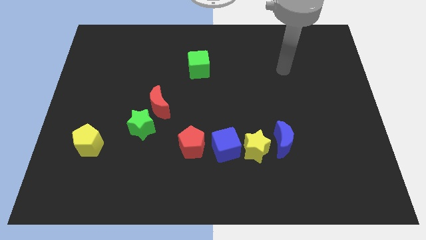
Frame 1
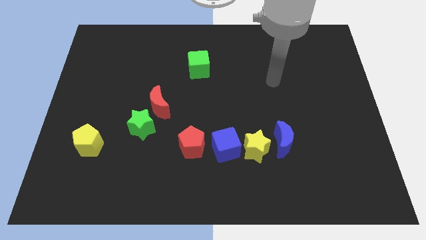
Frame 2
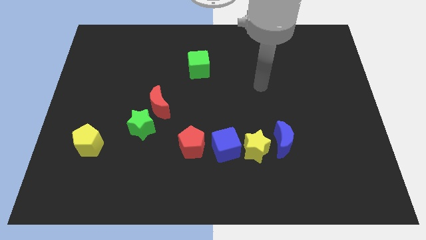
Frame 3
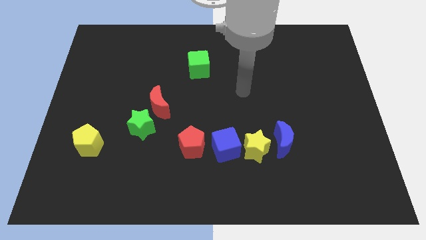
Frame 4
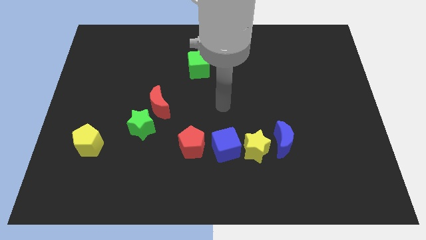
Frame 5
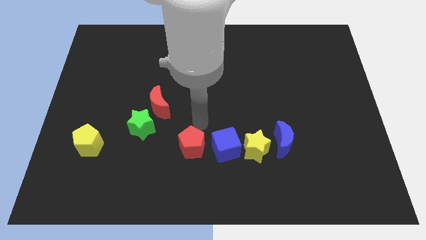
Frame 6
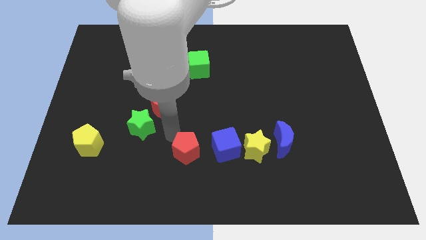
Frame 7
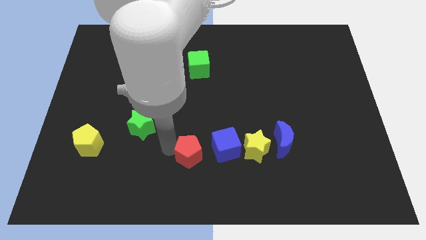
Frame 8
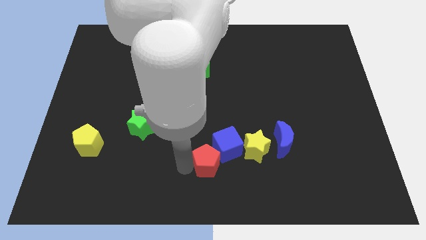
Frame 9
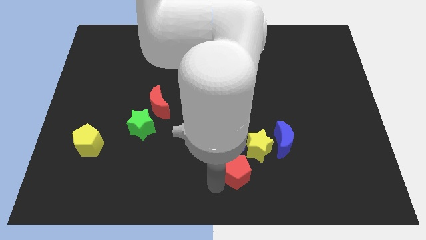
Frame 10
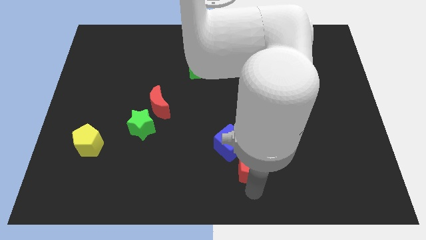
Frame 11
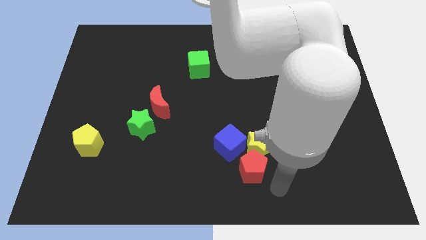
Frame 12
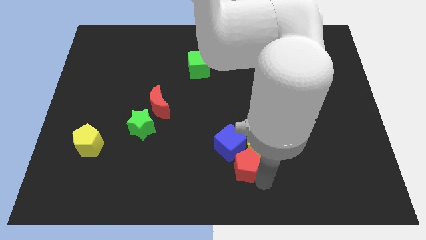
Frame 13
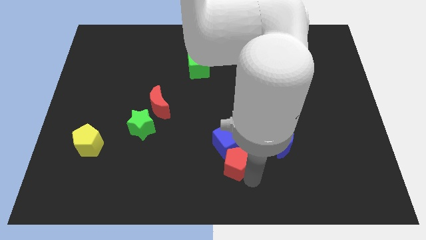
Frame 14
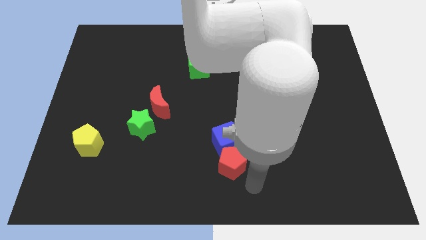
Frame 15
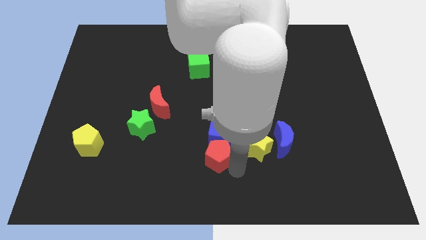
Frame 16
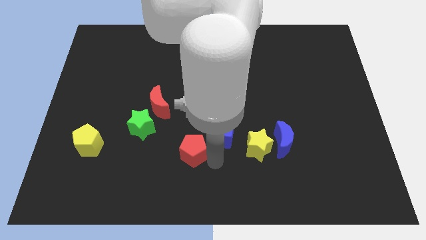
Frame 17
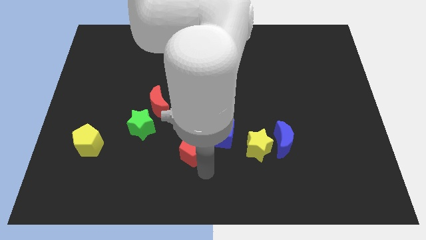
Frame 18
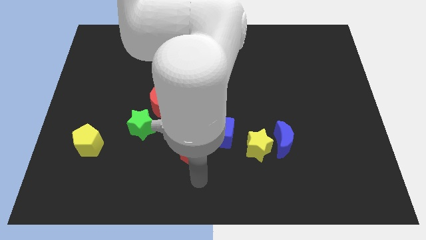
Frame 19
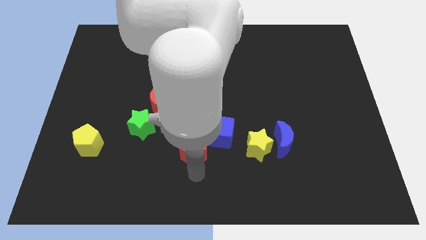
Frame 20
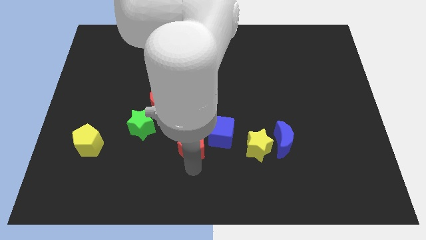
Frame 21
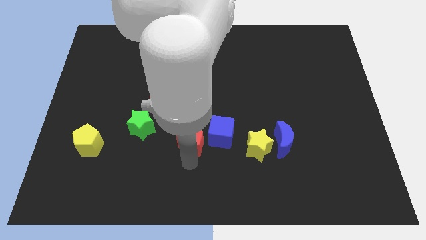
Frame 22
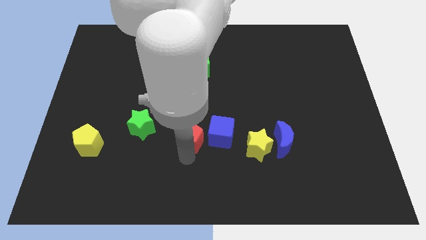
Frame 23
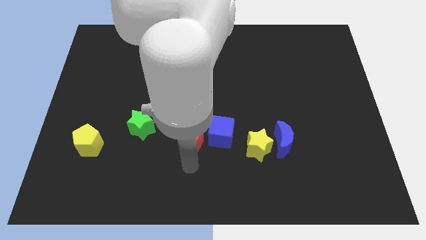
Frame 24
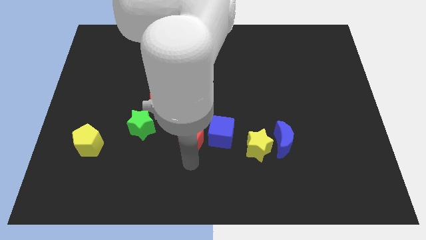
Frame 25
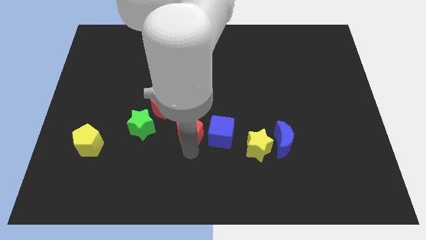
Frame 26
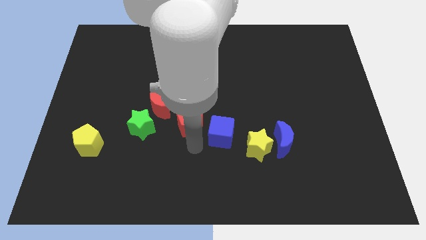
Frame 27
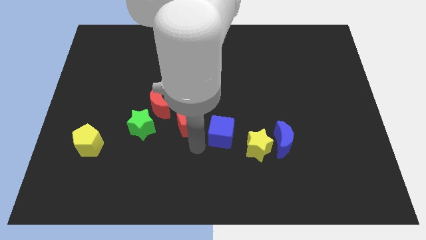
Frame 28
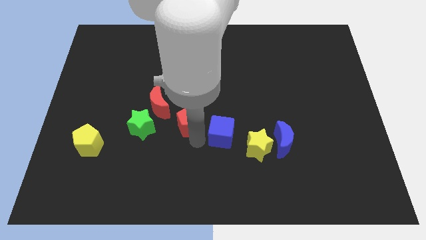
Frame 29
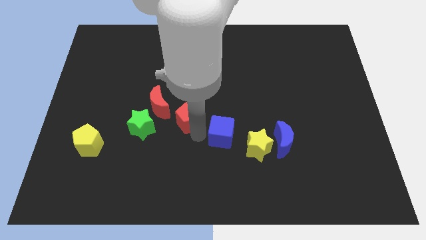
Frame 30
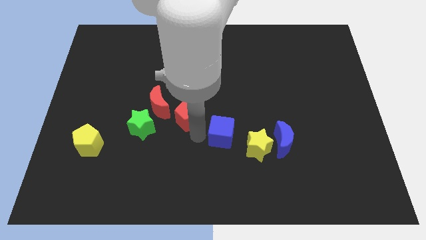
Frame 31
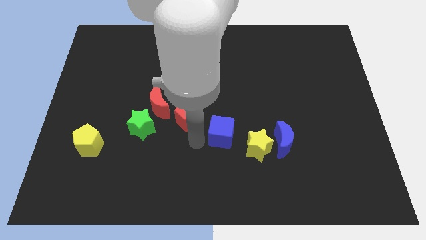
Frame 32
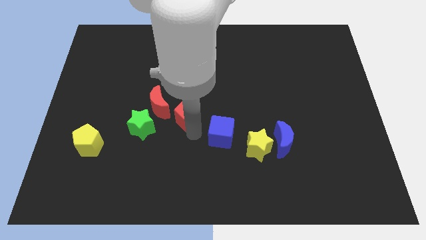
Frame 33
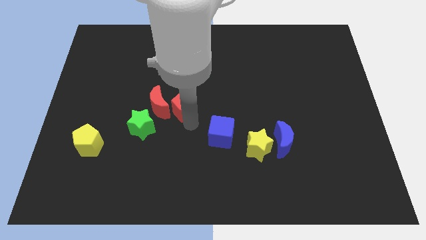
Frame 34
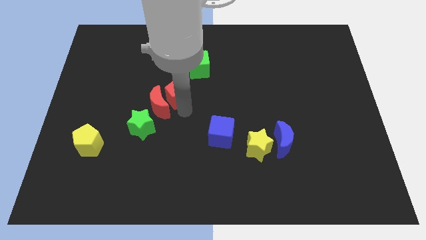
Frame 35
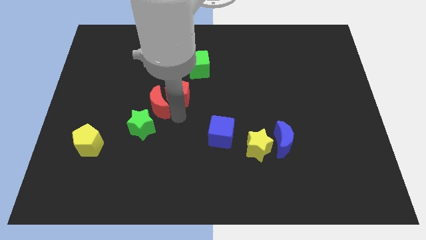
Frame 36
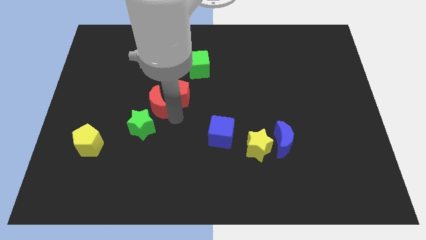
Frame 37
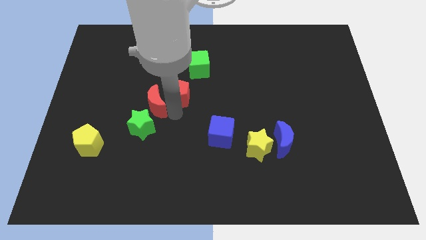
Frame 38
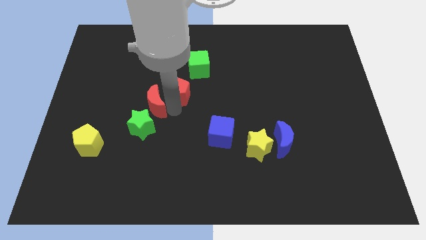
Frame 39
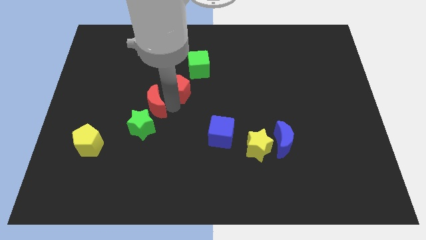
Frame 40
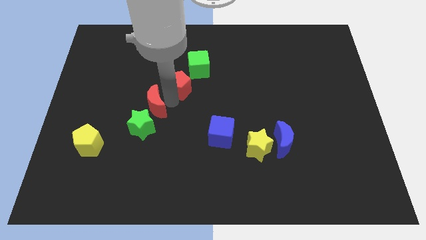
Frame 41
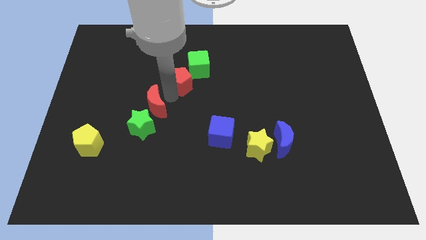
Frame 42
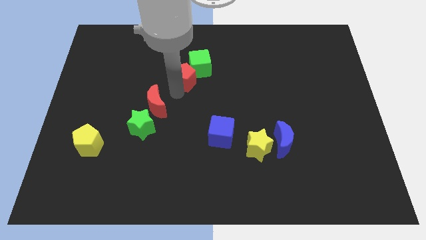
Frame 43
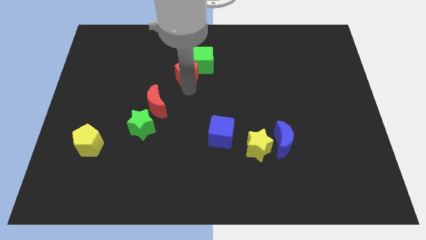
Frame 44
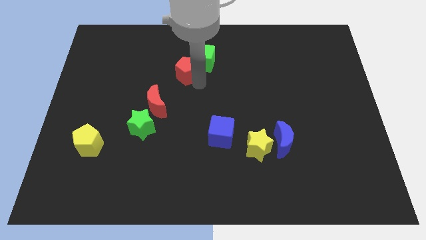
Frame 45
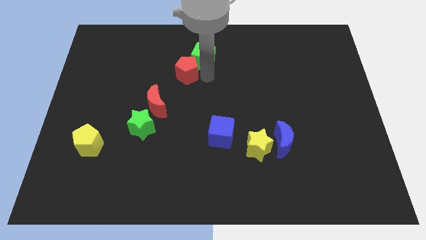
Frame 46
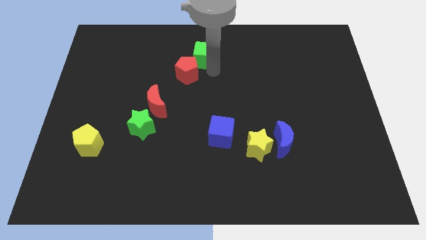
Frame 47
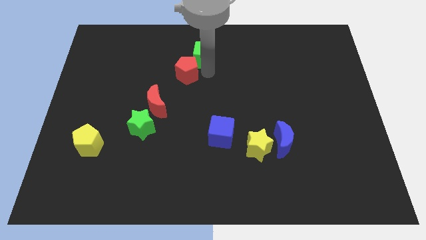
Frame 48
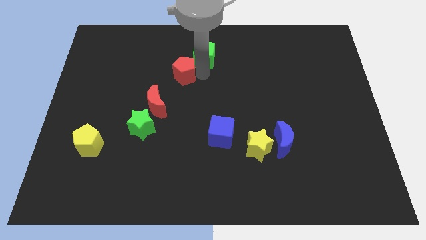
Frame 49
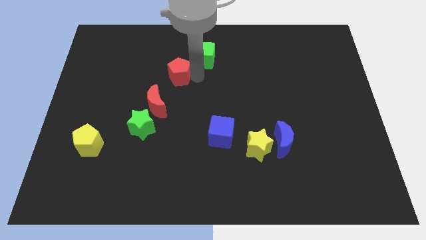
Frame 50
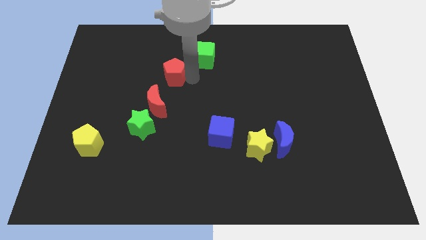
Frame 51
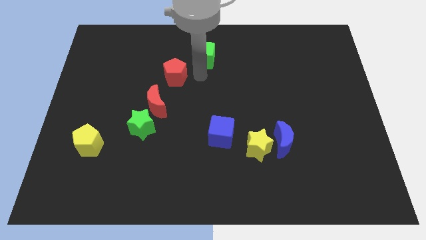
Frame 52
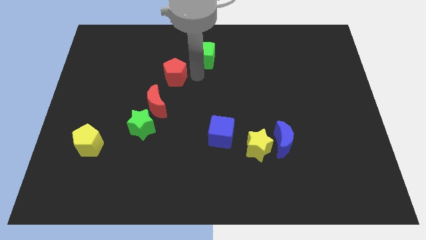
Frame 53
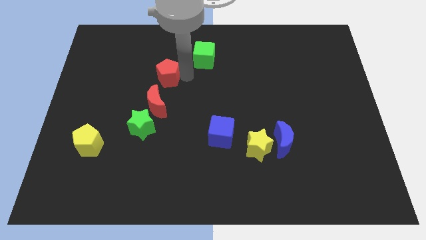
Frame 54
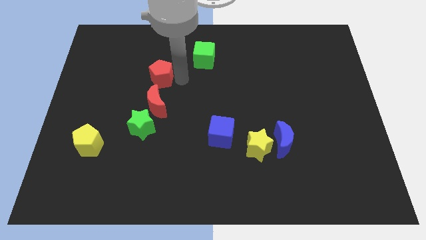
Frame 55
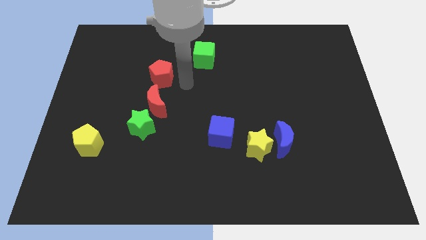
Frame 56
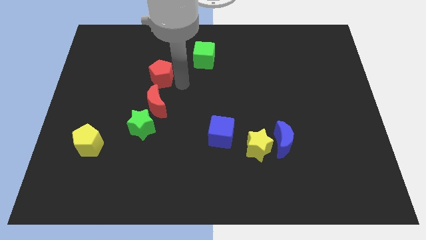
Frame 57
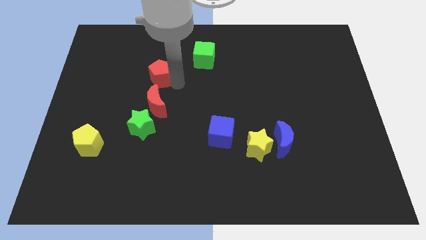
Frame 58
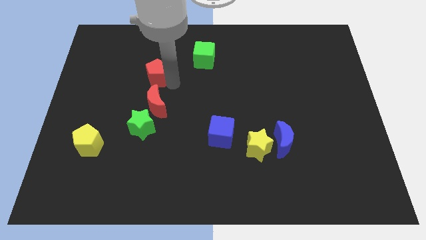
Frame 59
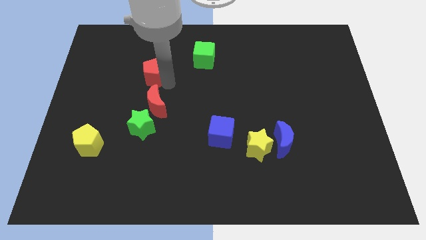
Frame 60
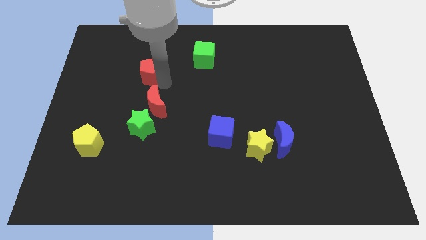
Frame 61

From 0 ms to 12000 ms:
push the red pentagon diagonally up and to the left

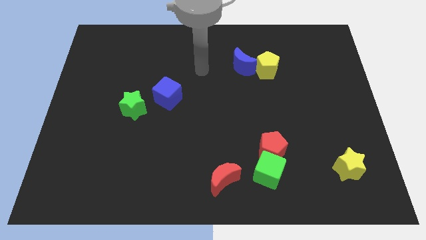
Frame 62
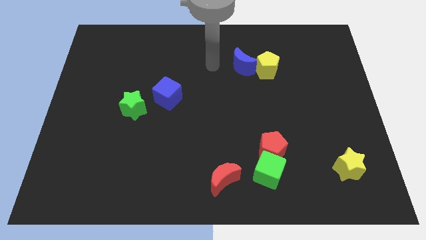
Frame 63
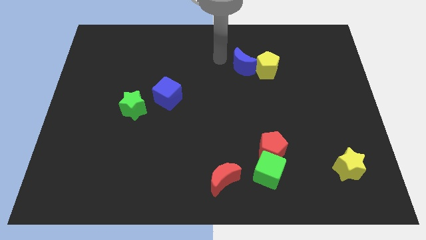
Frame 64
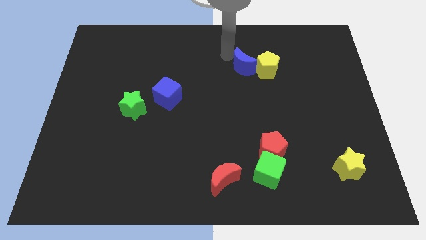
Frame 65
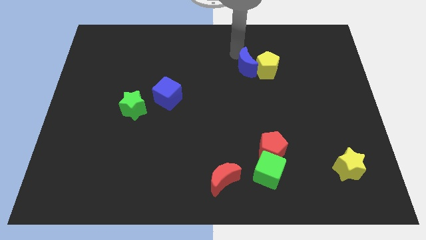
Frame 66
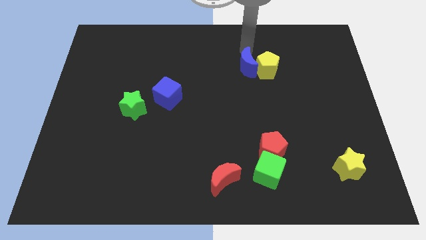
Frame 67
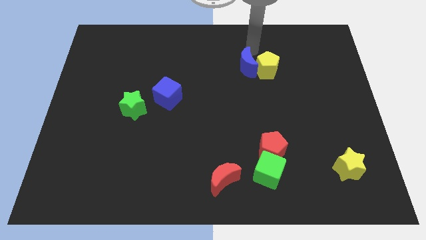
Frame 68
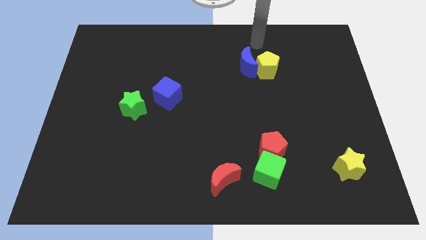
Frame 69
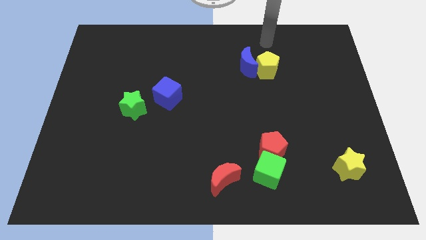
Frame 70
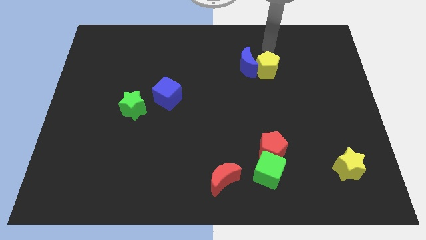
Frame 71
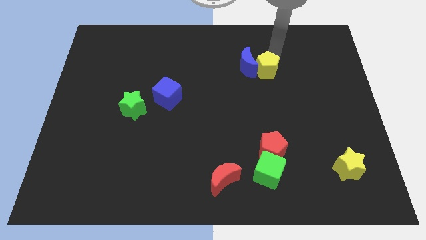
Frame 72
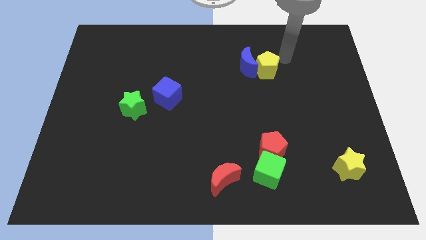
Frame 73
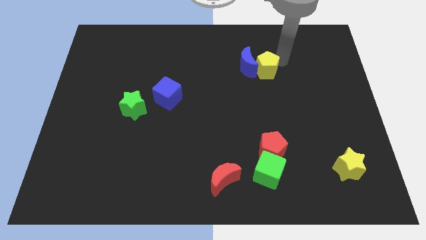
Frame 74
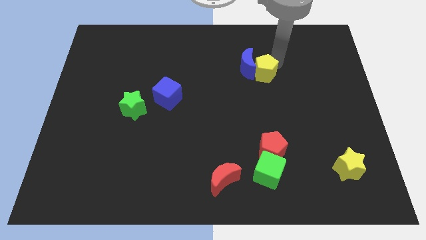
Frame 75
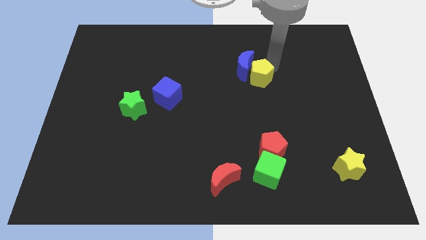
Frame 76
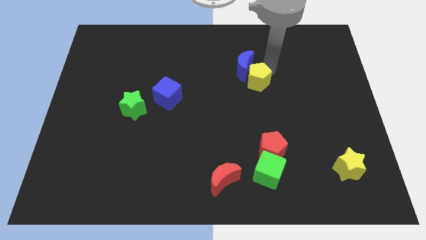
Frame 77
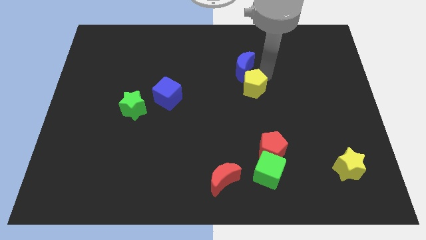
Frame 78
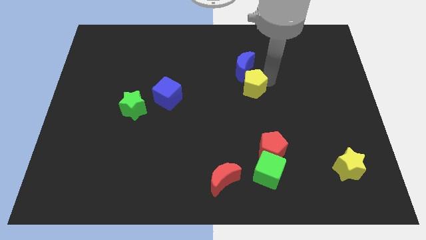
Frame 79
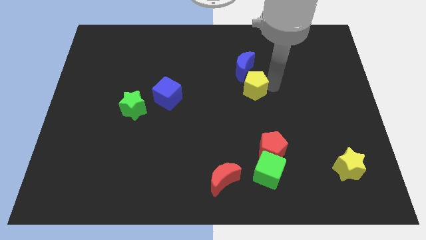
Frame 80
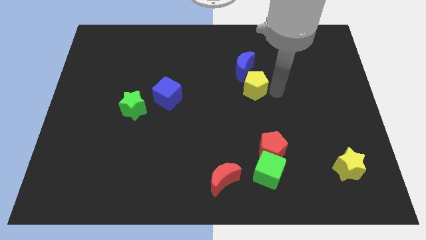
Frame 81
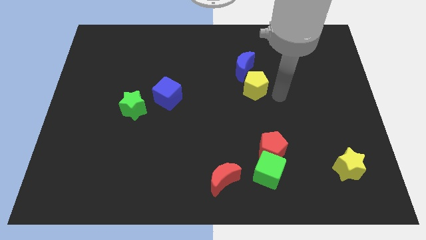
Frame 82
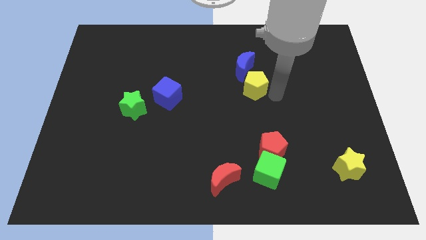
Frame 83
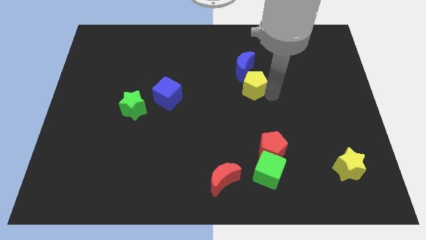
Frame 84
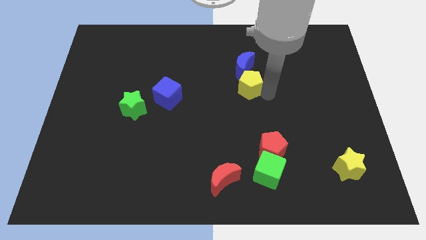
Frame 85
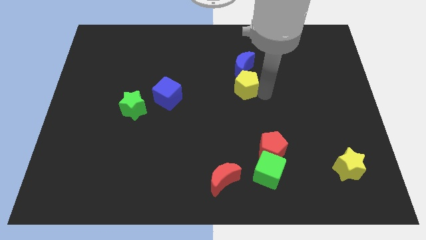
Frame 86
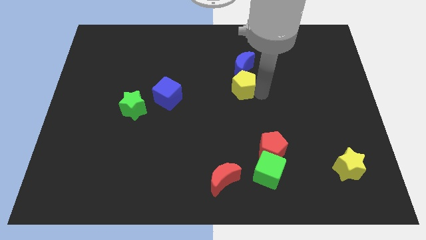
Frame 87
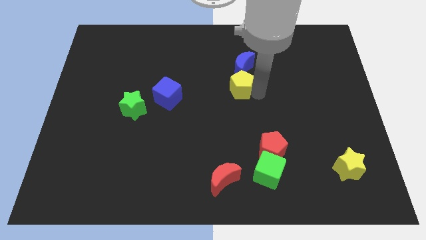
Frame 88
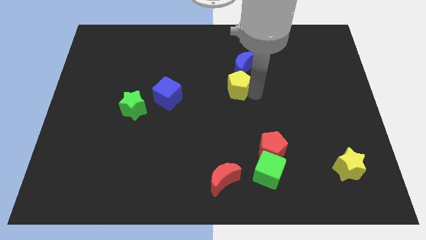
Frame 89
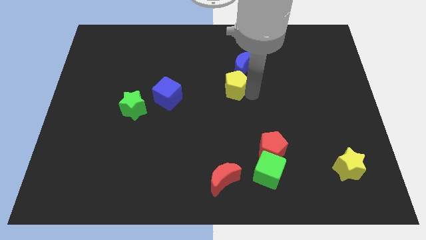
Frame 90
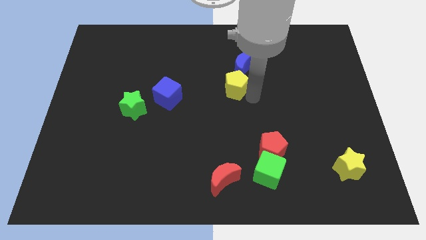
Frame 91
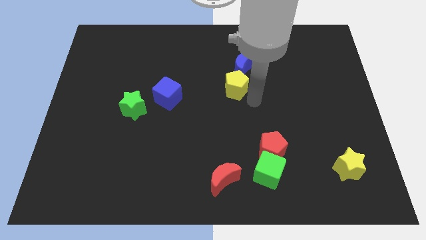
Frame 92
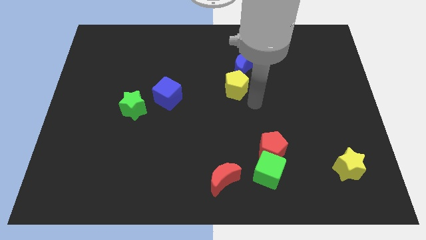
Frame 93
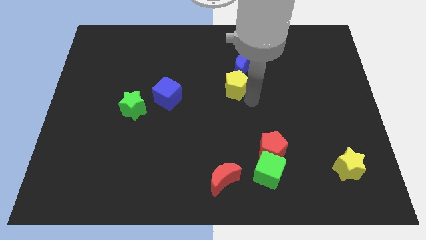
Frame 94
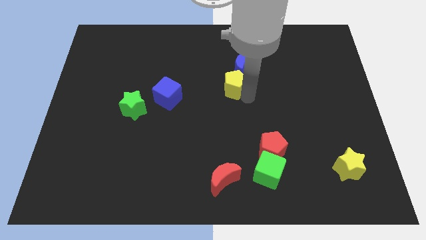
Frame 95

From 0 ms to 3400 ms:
slightly push the yellow pentagon to the left
